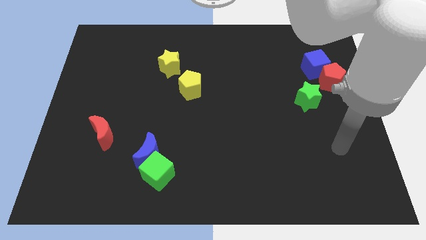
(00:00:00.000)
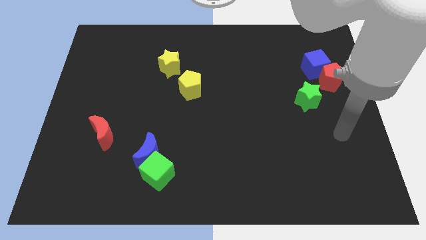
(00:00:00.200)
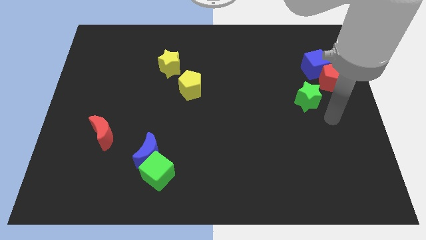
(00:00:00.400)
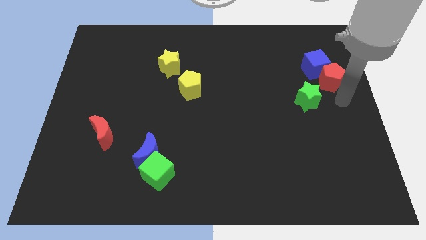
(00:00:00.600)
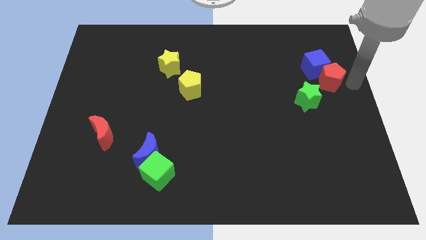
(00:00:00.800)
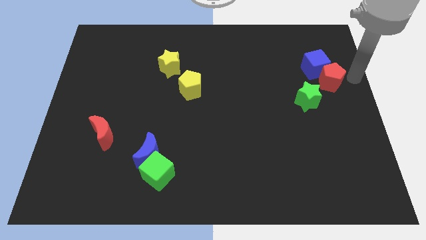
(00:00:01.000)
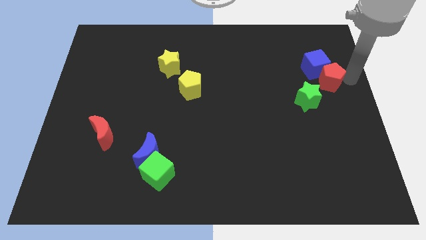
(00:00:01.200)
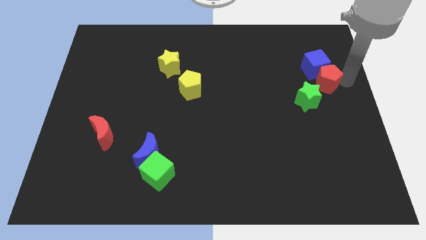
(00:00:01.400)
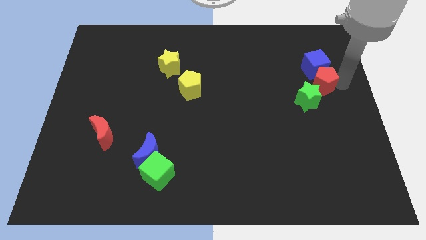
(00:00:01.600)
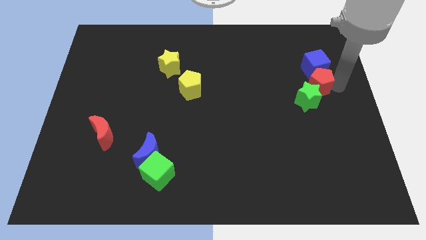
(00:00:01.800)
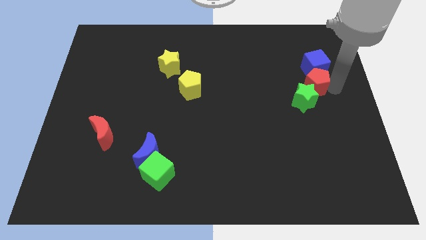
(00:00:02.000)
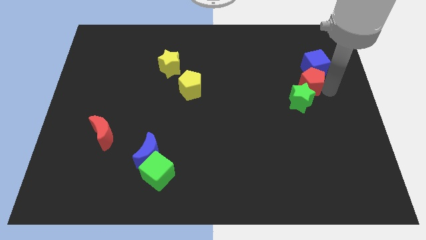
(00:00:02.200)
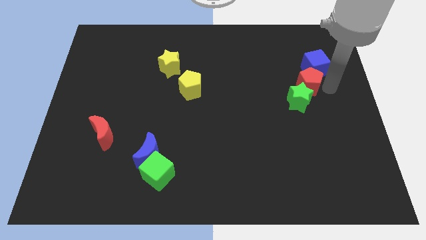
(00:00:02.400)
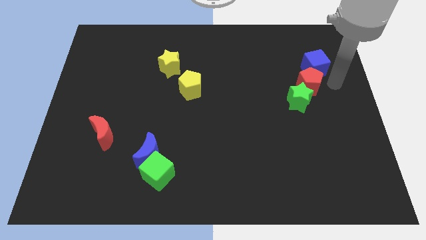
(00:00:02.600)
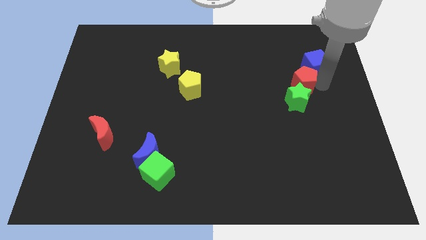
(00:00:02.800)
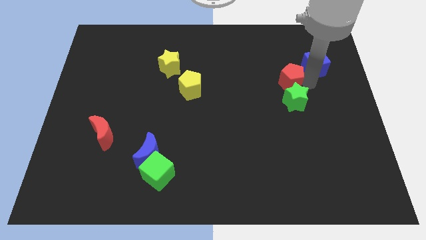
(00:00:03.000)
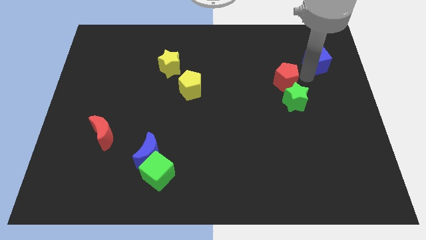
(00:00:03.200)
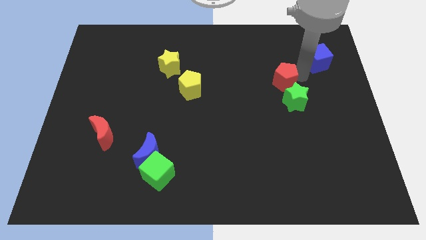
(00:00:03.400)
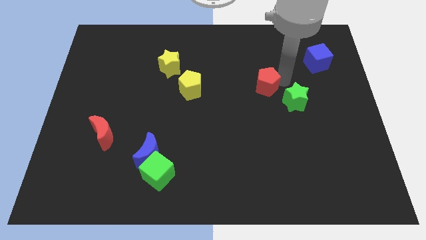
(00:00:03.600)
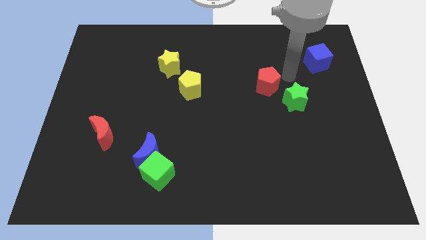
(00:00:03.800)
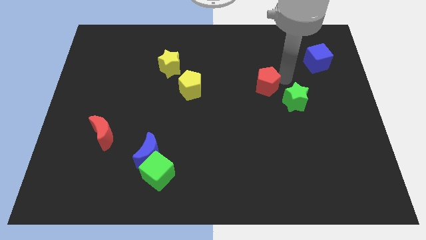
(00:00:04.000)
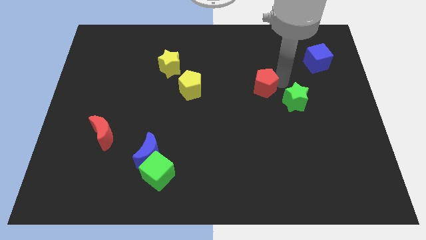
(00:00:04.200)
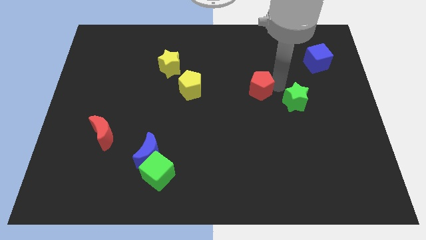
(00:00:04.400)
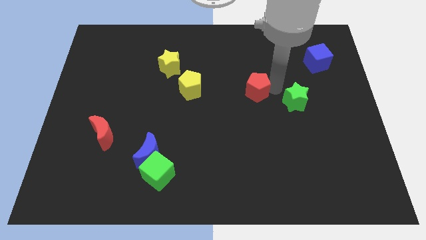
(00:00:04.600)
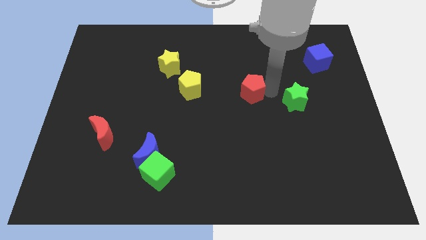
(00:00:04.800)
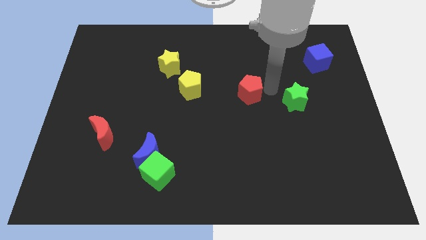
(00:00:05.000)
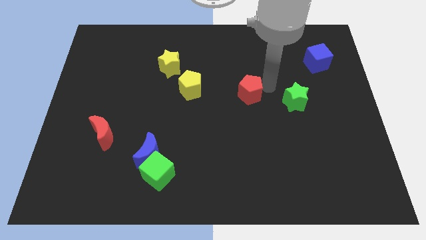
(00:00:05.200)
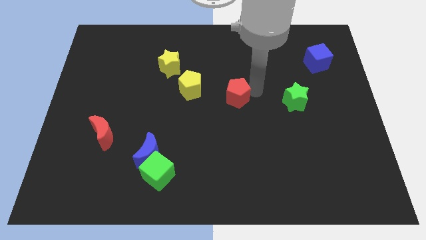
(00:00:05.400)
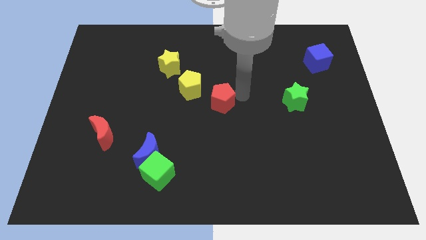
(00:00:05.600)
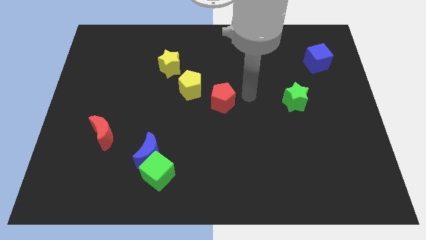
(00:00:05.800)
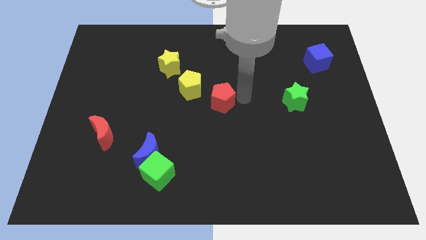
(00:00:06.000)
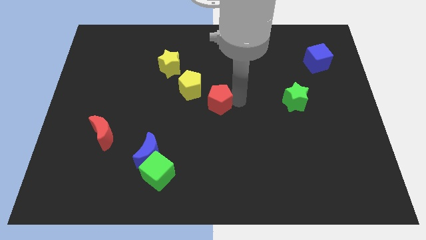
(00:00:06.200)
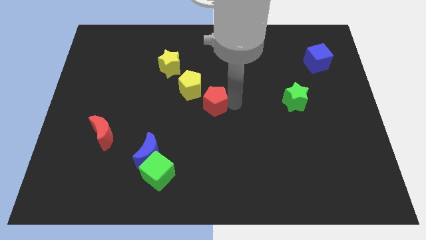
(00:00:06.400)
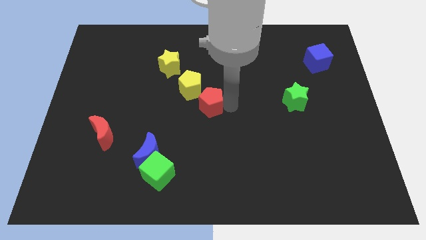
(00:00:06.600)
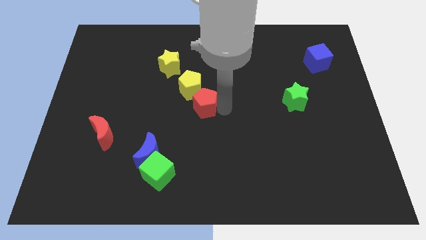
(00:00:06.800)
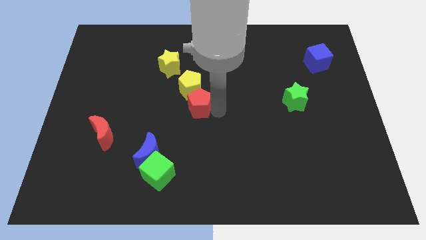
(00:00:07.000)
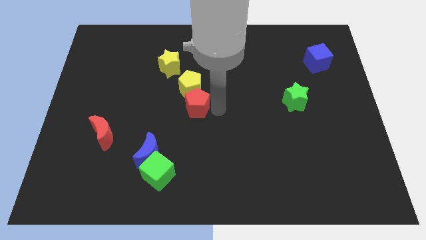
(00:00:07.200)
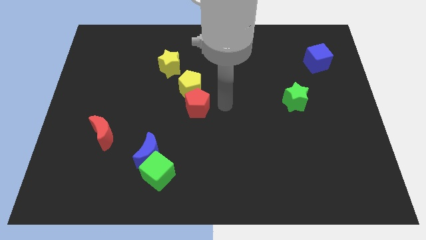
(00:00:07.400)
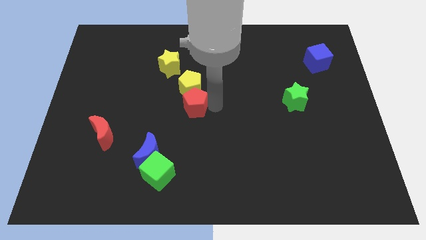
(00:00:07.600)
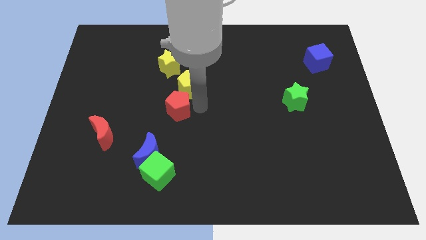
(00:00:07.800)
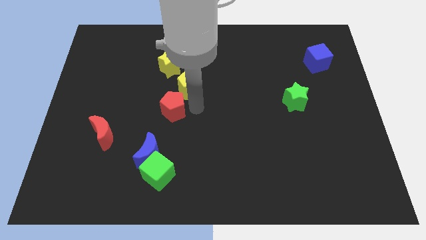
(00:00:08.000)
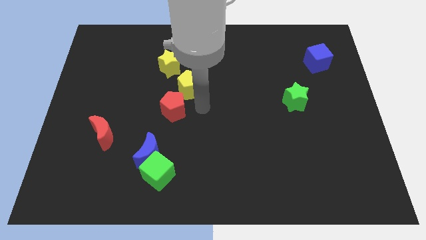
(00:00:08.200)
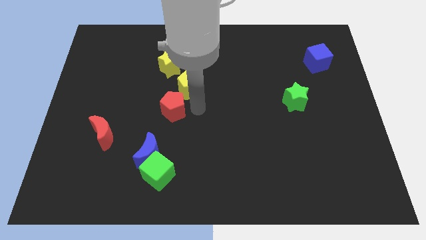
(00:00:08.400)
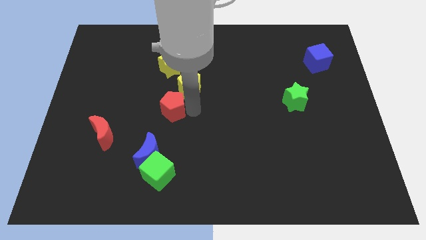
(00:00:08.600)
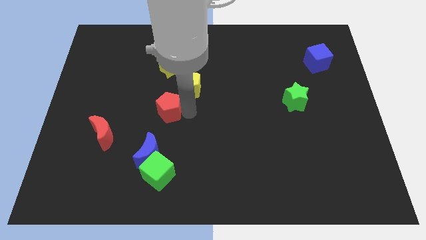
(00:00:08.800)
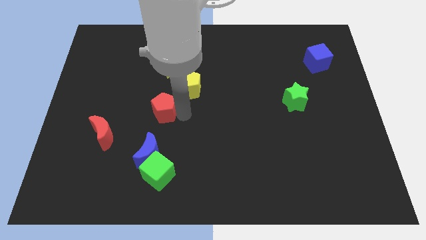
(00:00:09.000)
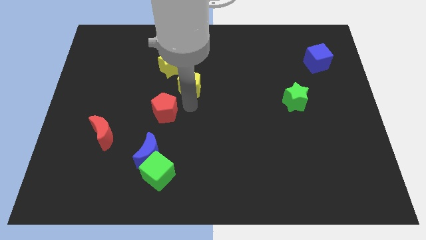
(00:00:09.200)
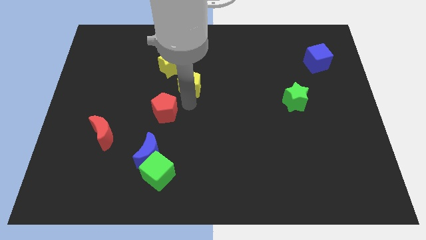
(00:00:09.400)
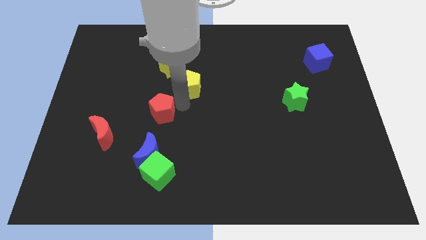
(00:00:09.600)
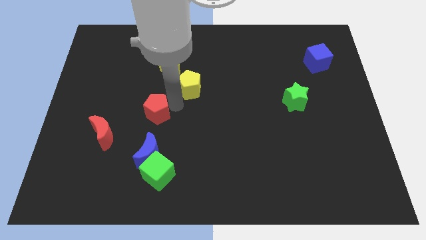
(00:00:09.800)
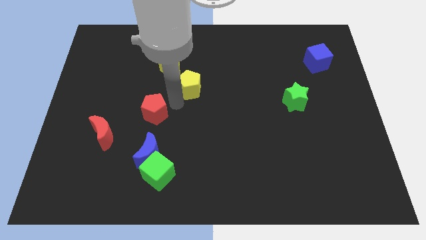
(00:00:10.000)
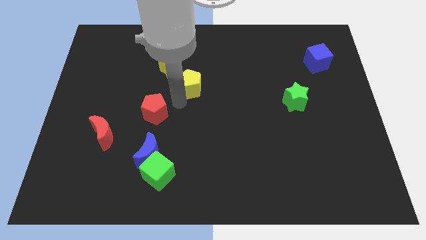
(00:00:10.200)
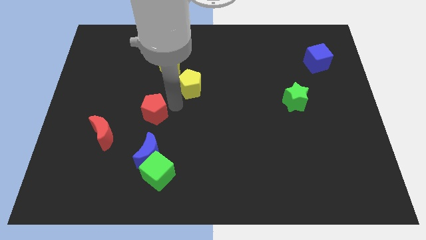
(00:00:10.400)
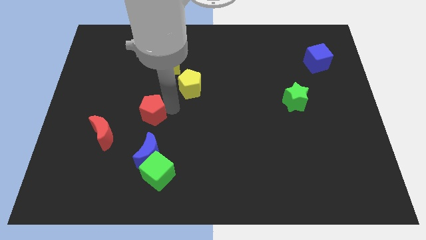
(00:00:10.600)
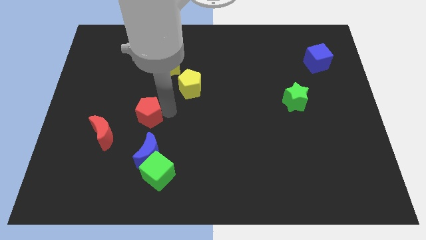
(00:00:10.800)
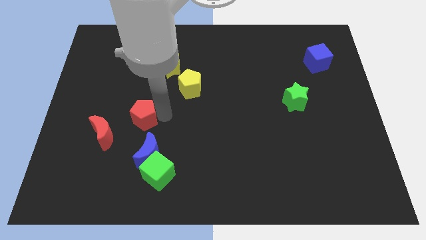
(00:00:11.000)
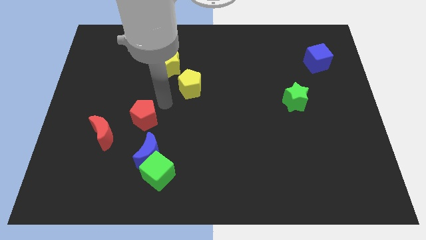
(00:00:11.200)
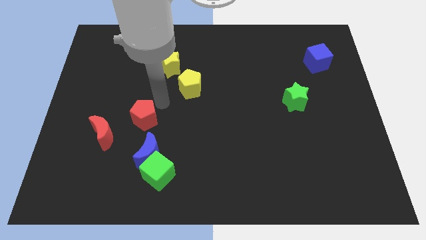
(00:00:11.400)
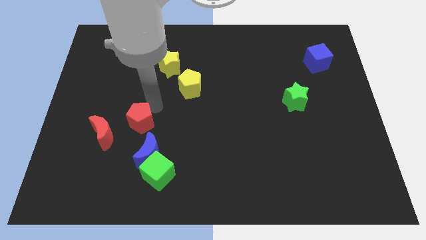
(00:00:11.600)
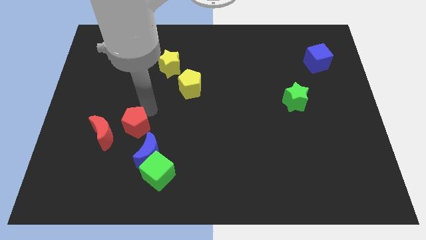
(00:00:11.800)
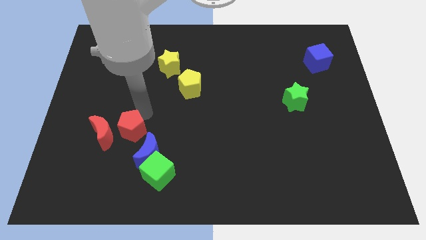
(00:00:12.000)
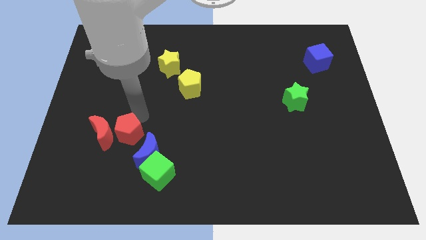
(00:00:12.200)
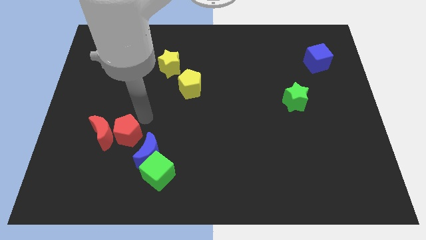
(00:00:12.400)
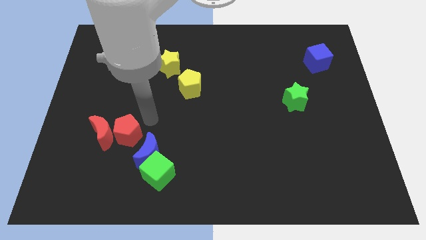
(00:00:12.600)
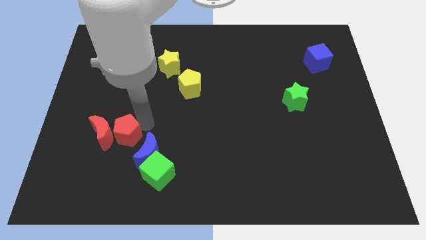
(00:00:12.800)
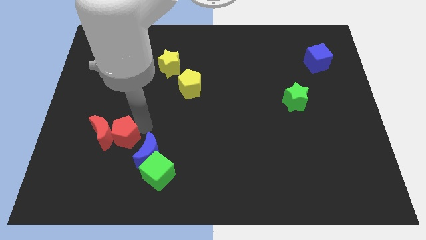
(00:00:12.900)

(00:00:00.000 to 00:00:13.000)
slide the red pentagon to the left of the blue moon

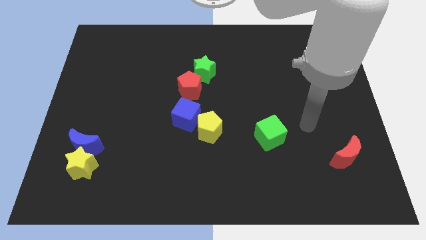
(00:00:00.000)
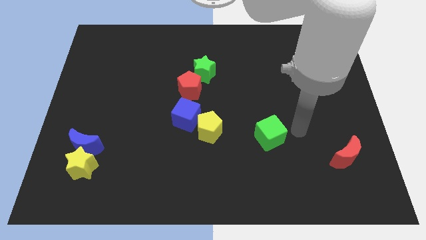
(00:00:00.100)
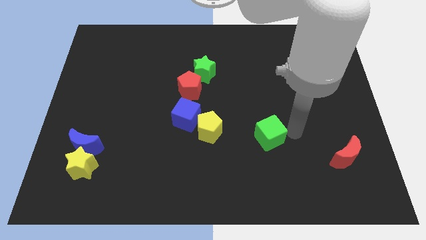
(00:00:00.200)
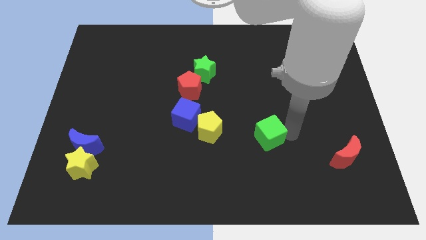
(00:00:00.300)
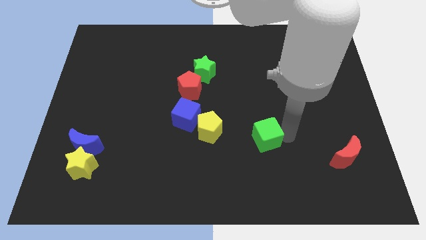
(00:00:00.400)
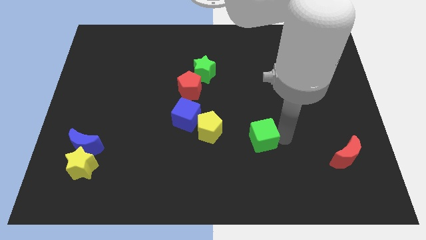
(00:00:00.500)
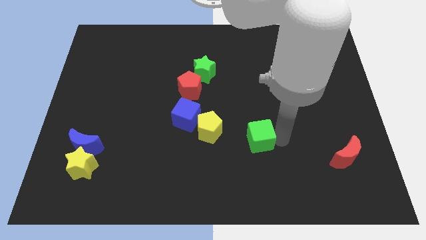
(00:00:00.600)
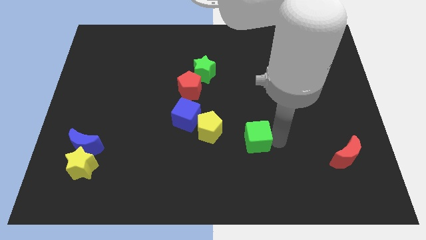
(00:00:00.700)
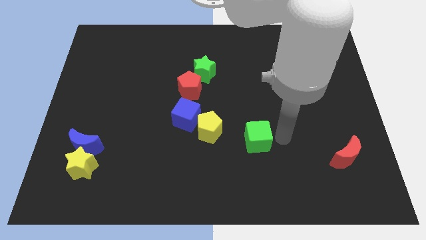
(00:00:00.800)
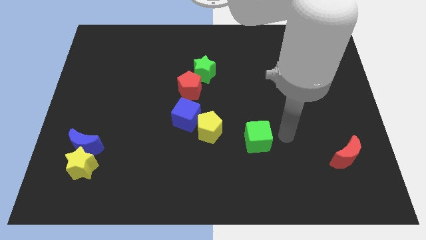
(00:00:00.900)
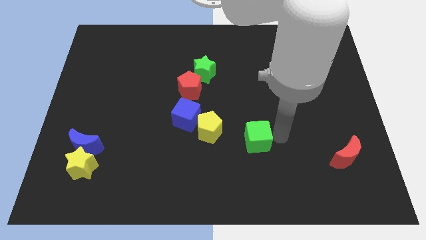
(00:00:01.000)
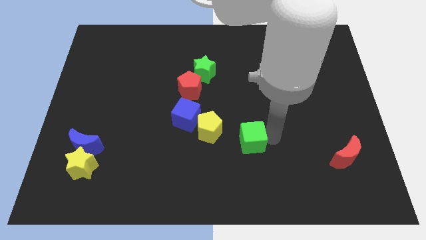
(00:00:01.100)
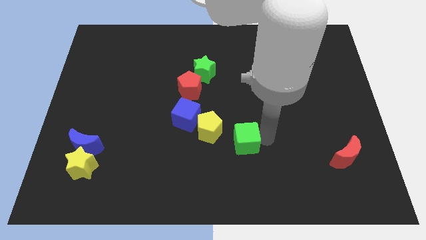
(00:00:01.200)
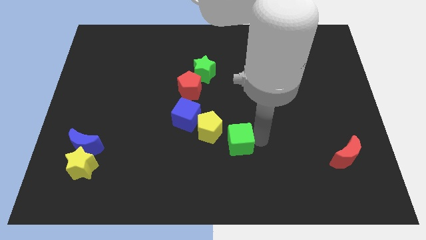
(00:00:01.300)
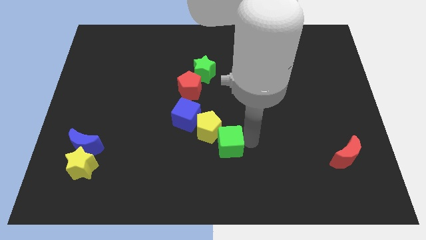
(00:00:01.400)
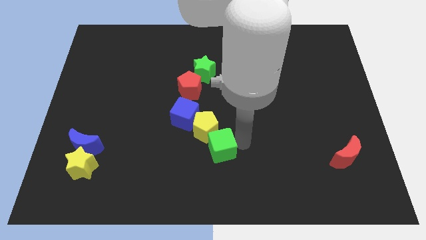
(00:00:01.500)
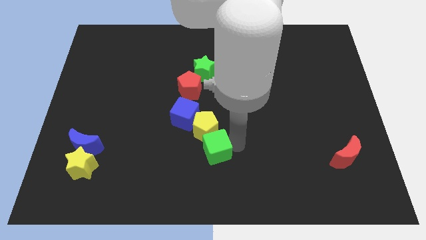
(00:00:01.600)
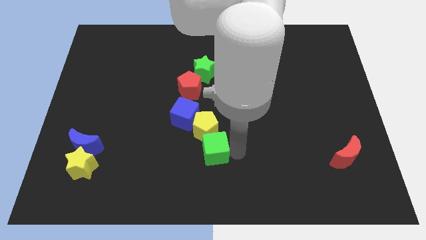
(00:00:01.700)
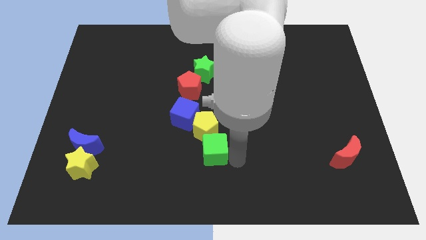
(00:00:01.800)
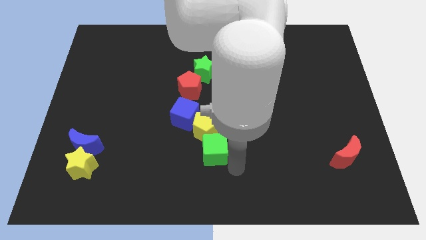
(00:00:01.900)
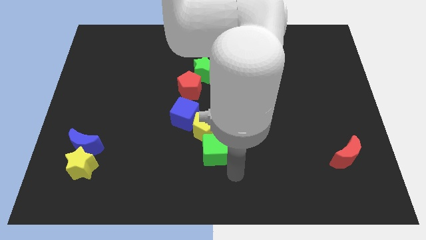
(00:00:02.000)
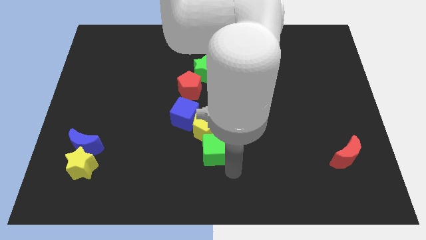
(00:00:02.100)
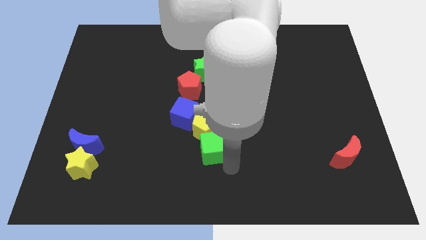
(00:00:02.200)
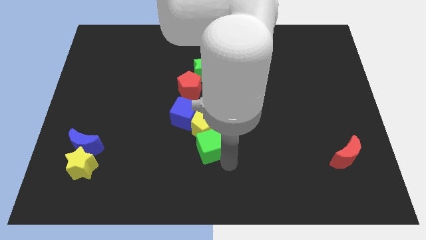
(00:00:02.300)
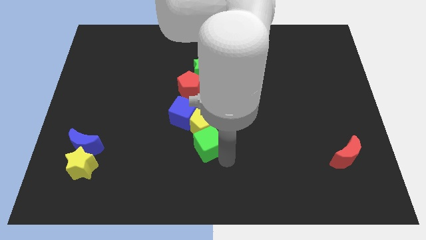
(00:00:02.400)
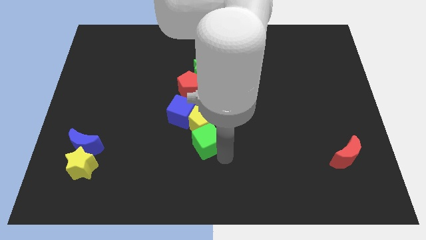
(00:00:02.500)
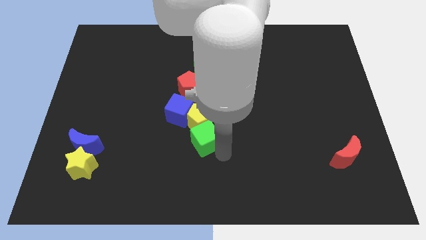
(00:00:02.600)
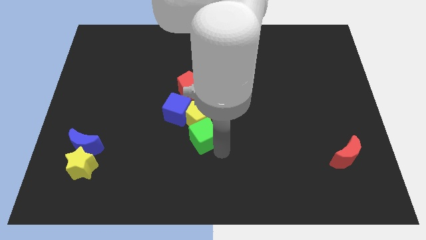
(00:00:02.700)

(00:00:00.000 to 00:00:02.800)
slide the green cube to the bottom of the red pentagon
